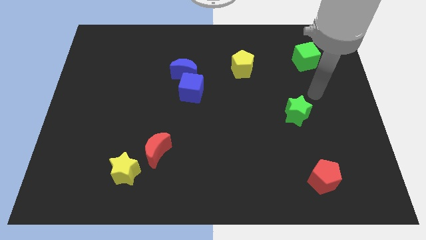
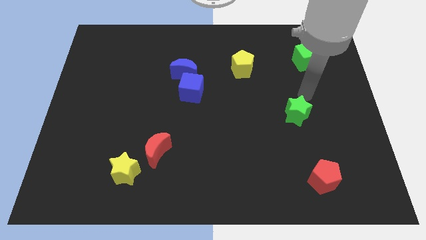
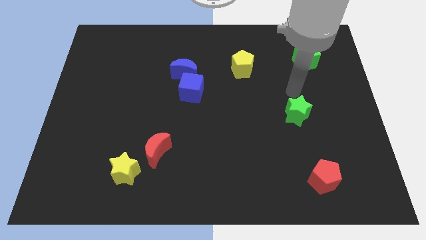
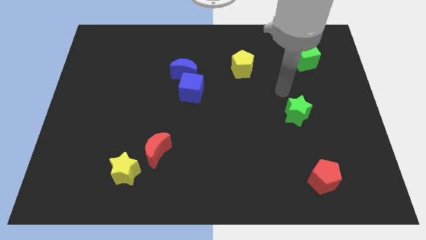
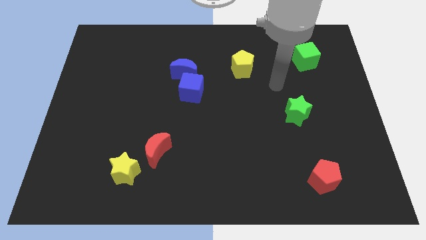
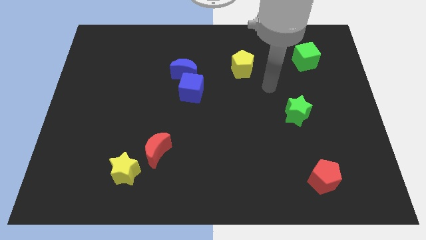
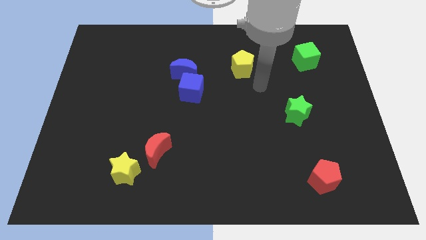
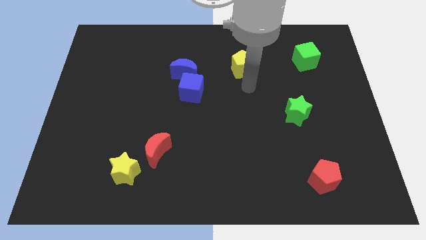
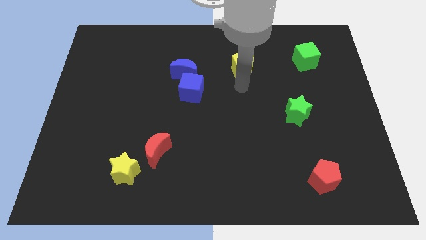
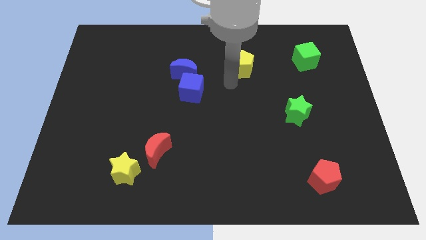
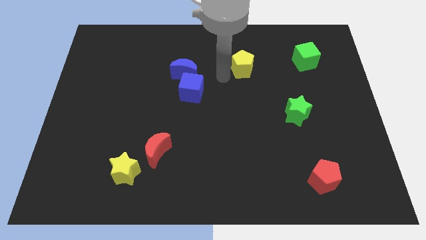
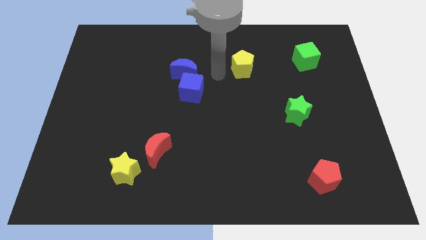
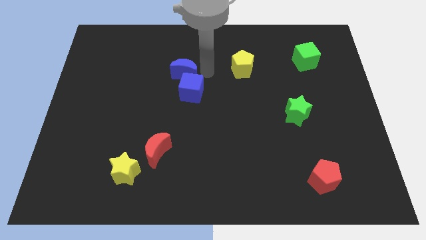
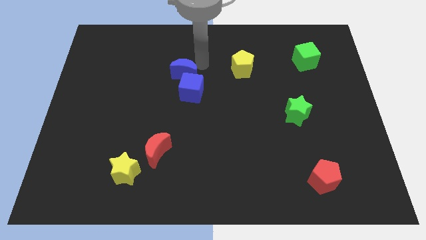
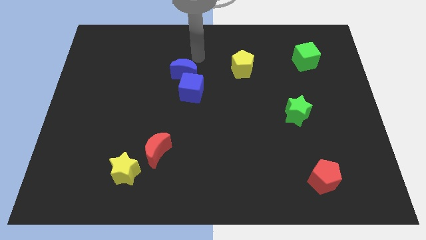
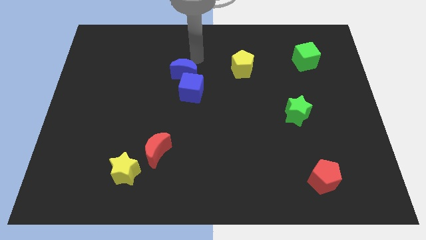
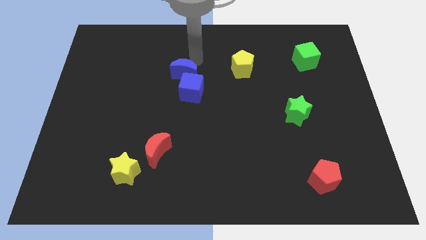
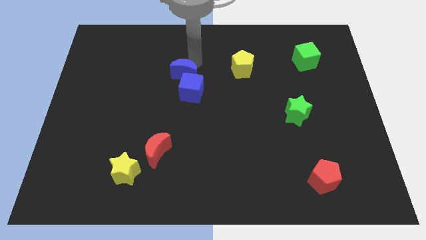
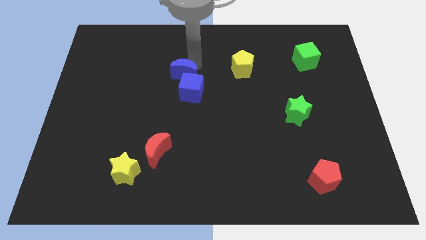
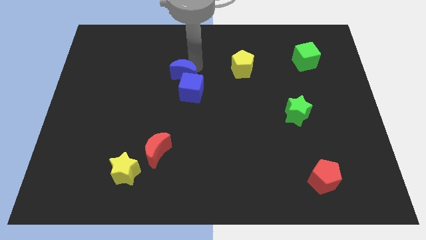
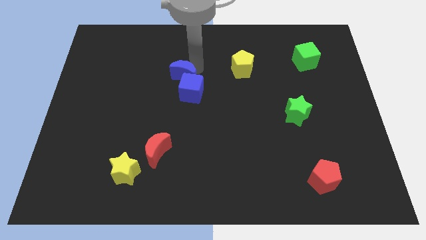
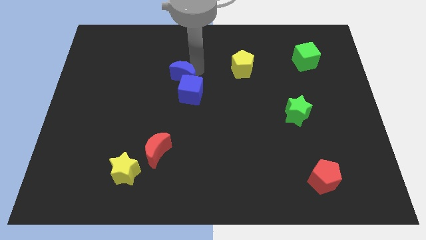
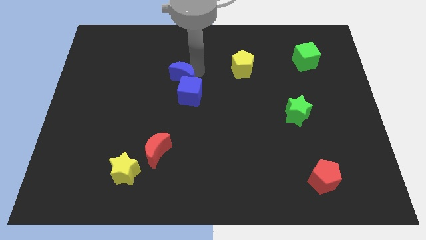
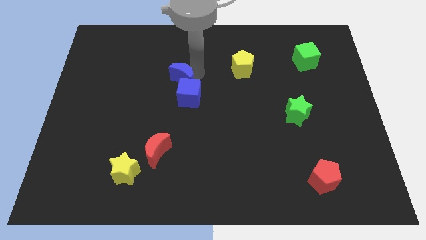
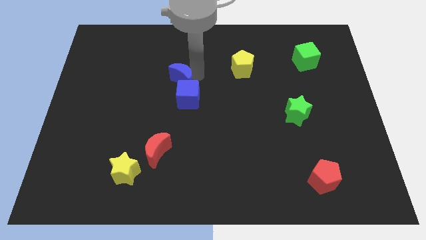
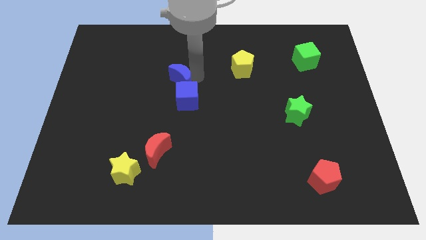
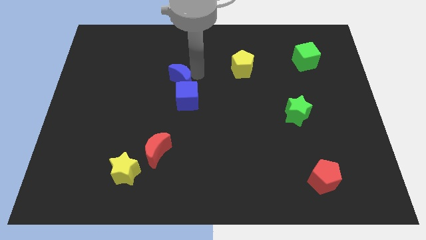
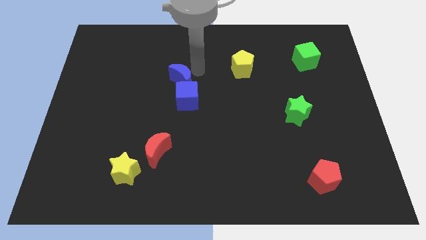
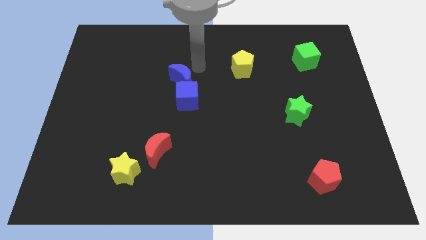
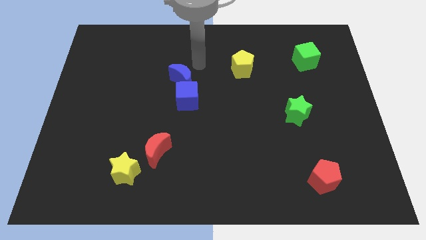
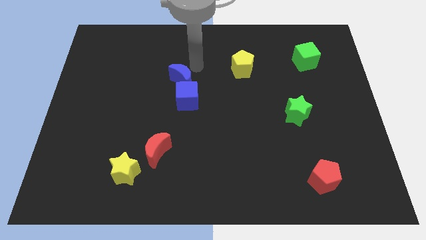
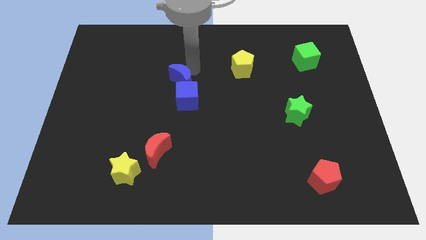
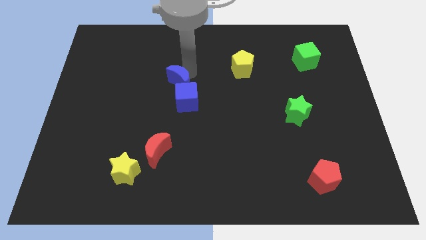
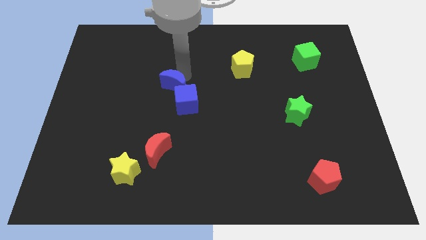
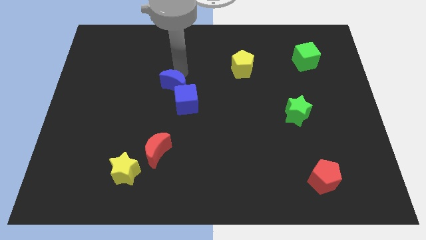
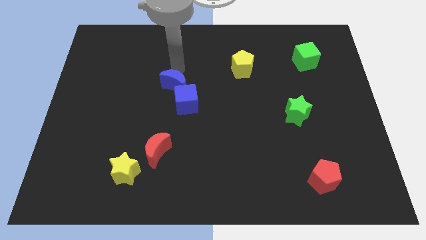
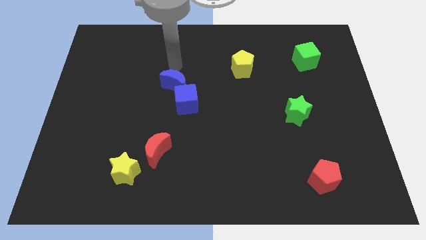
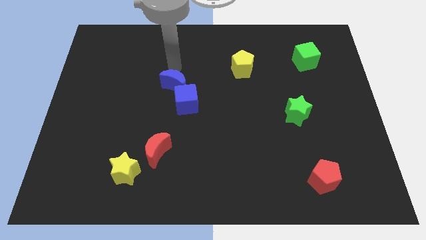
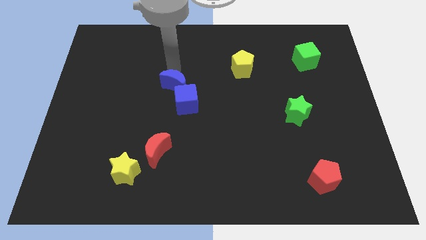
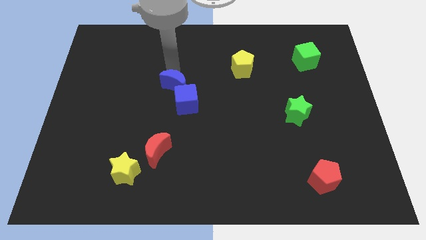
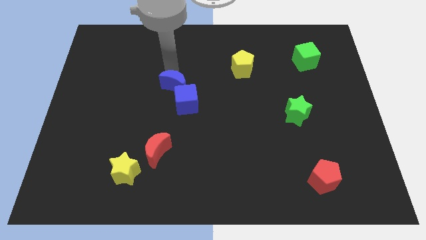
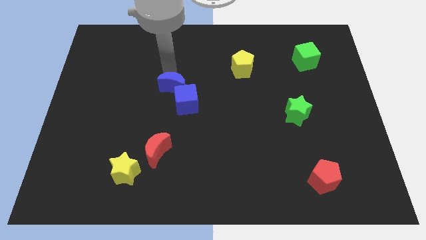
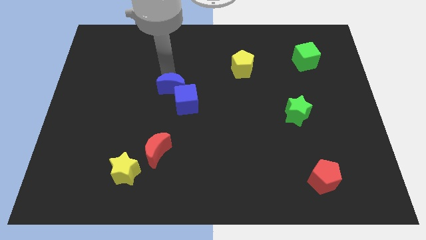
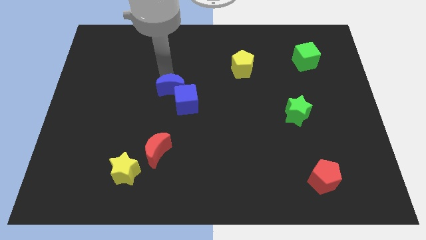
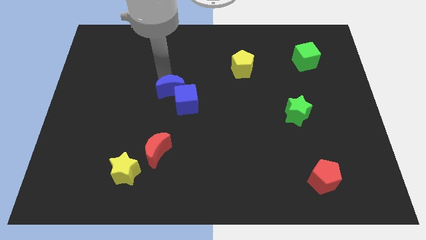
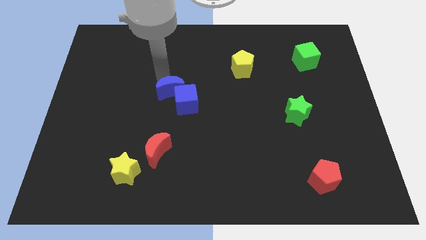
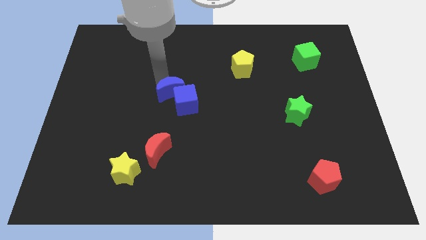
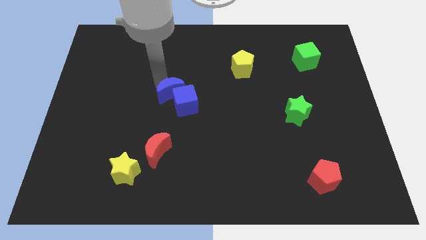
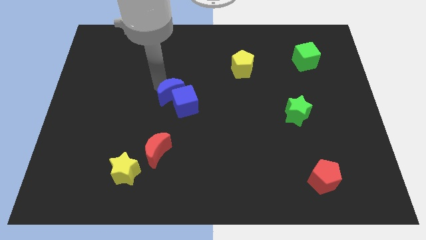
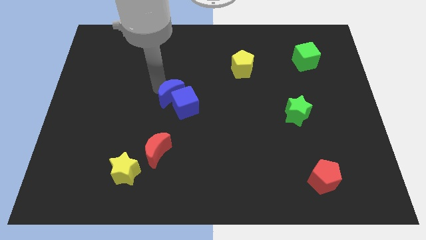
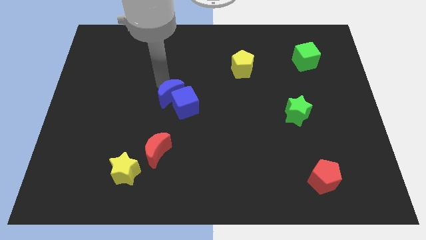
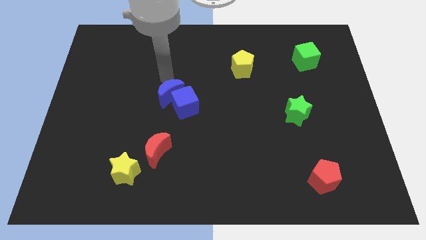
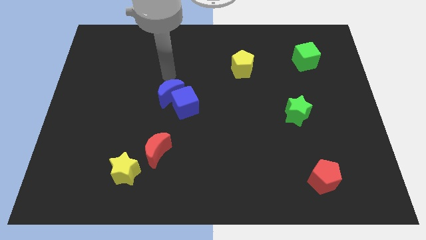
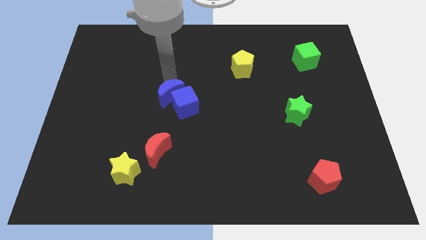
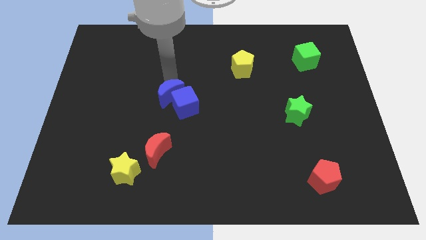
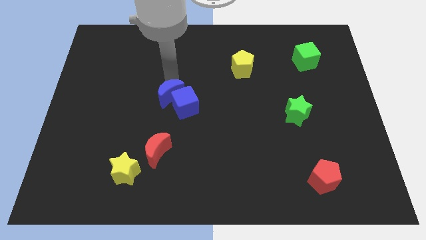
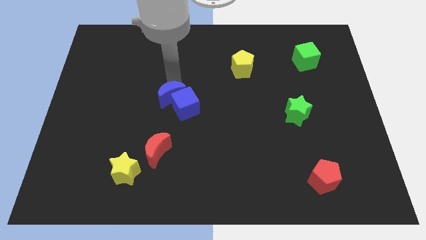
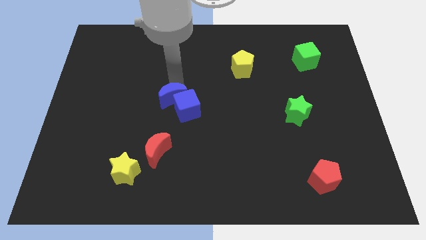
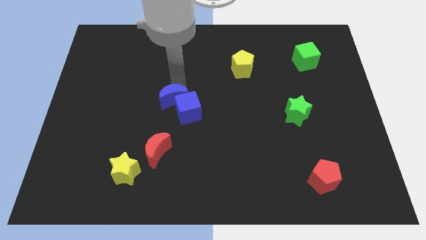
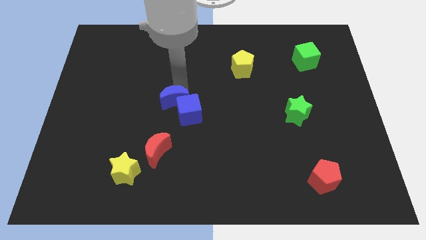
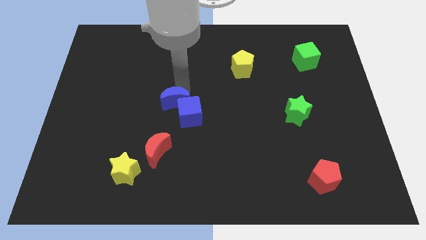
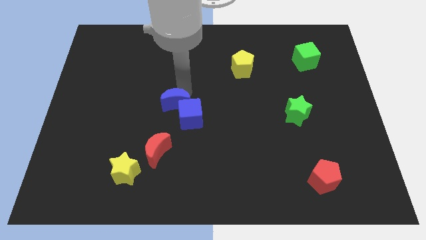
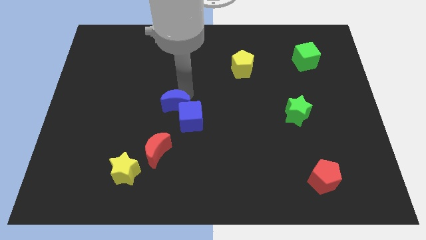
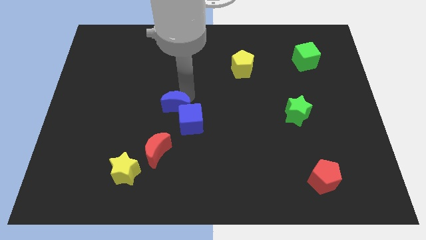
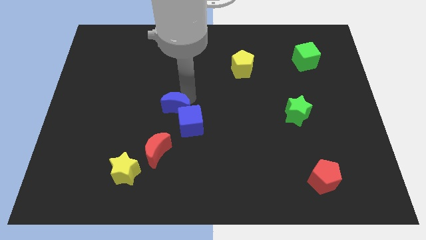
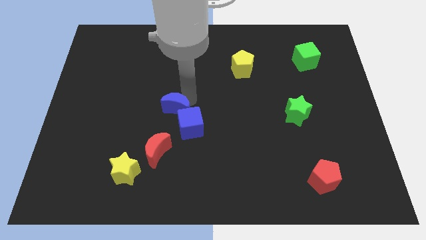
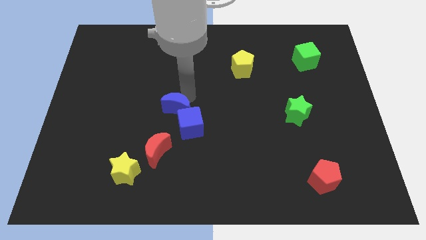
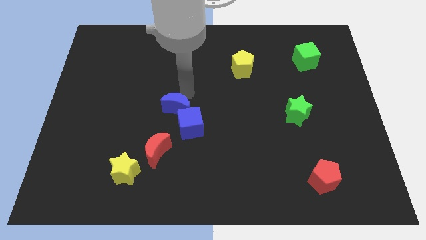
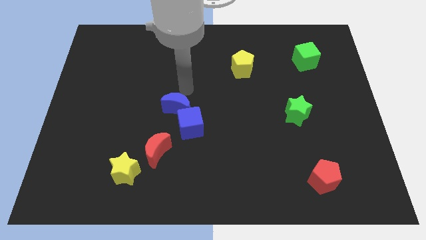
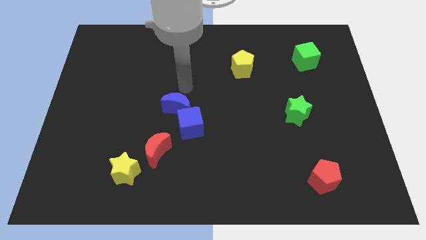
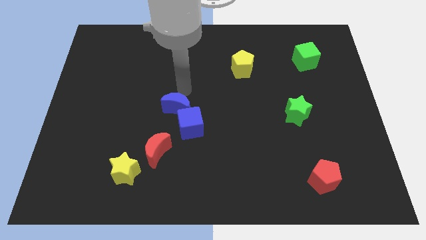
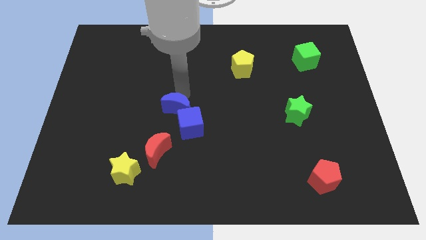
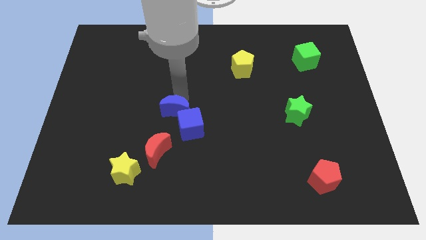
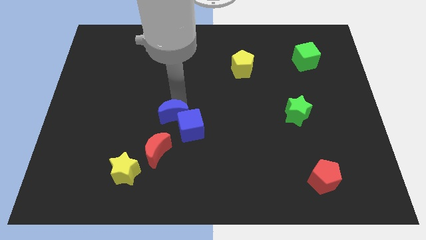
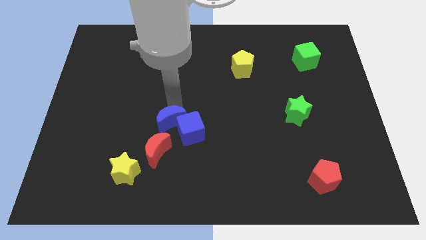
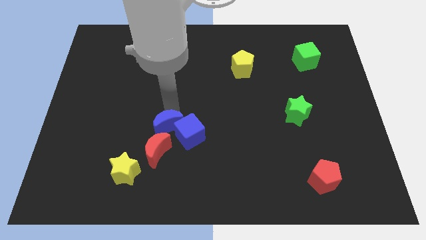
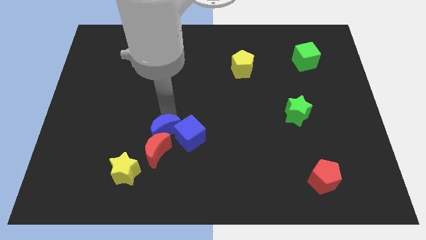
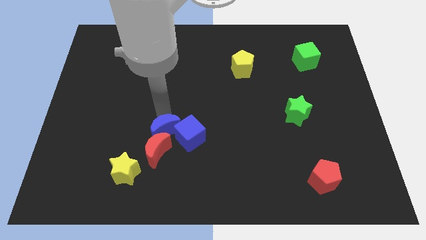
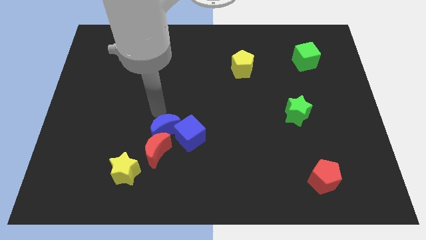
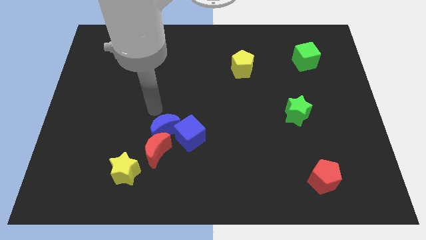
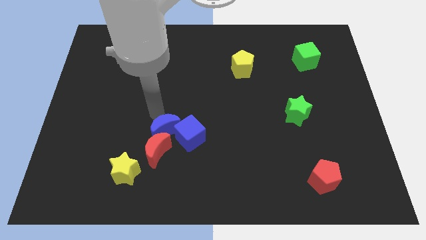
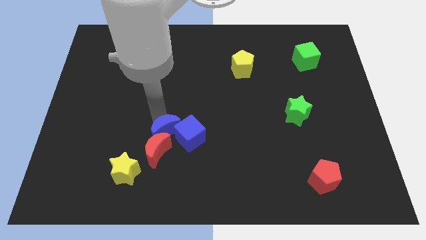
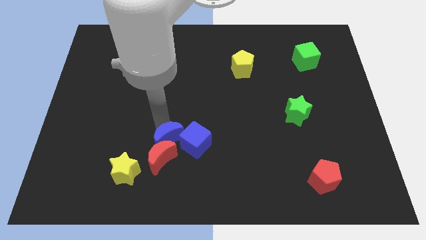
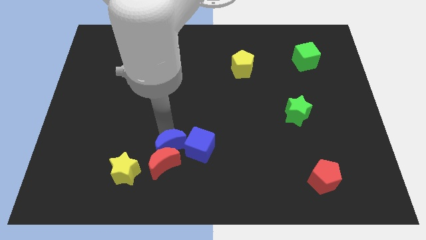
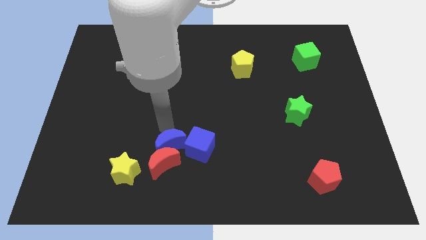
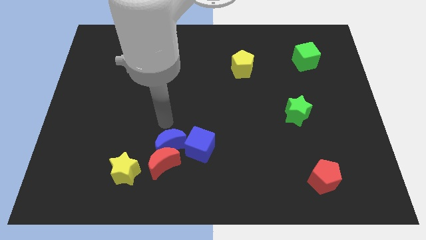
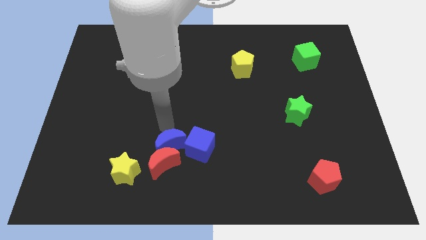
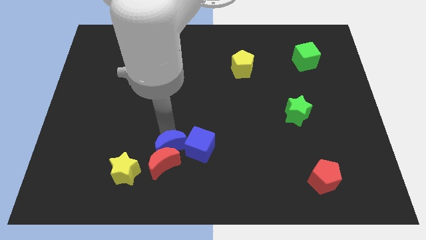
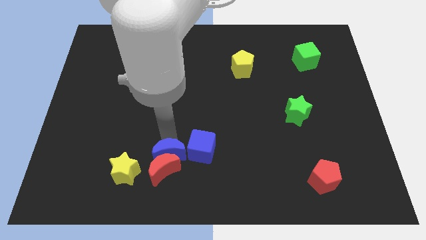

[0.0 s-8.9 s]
put the blue moon to the right side of the yellow star
